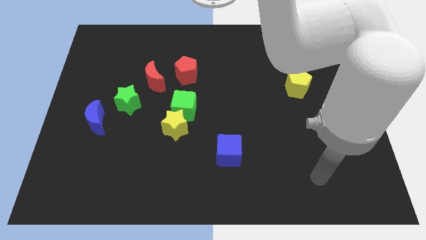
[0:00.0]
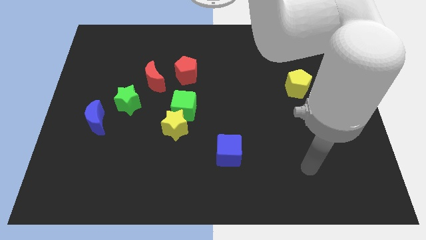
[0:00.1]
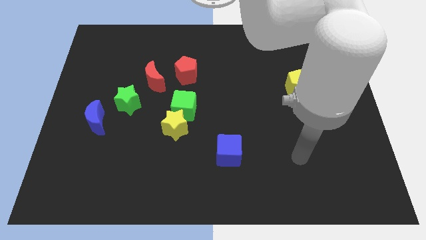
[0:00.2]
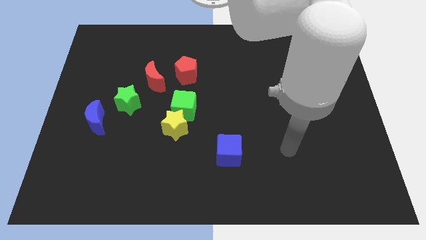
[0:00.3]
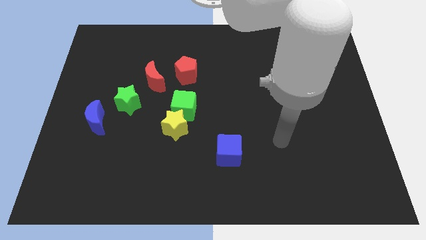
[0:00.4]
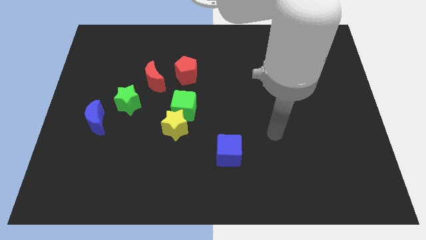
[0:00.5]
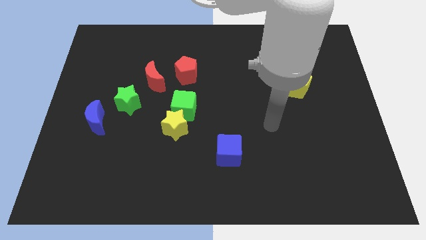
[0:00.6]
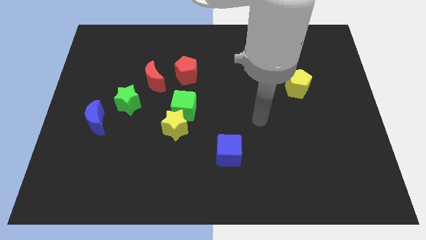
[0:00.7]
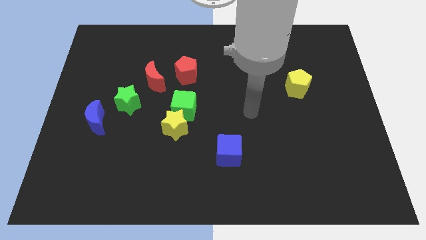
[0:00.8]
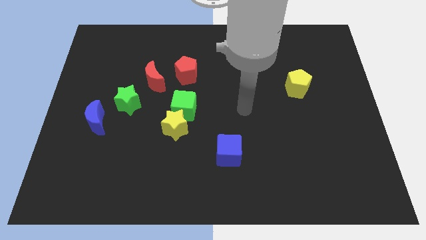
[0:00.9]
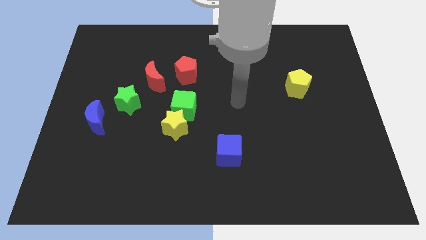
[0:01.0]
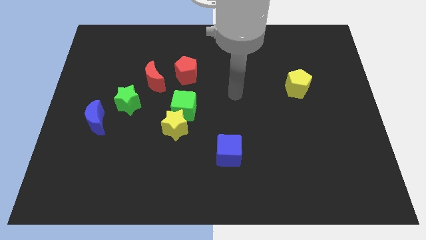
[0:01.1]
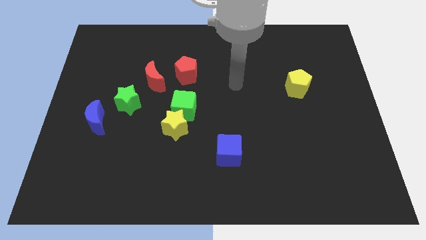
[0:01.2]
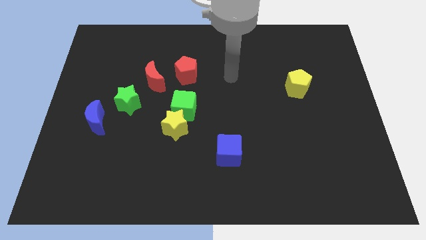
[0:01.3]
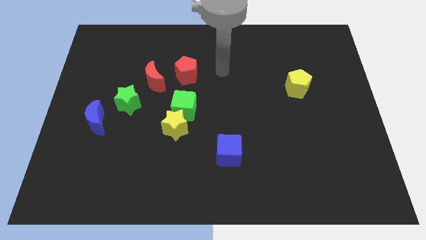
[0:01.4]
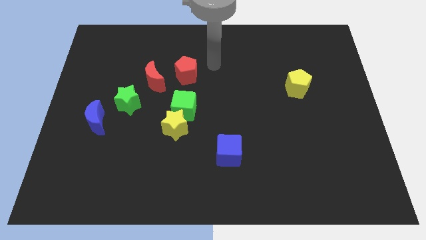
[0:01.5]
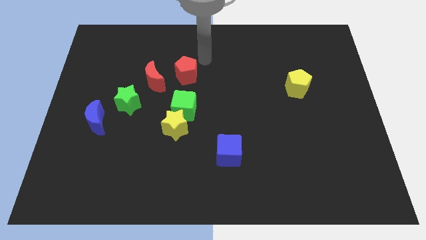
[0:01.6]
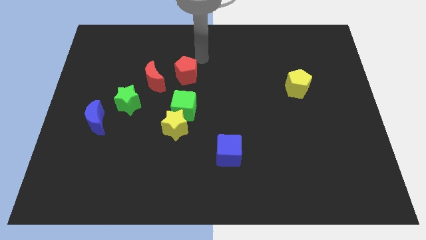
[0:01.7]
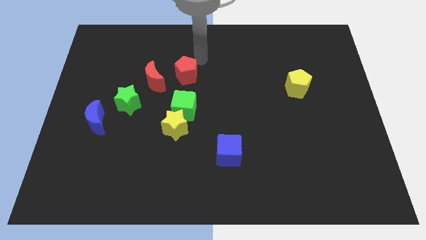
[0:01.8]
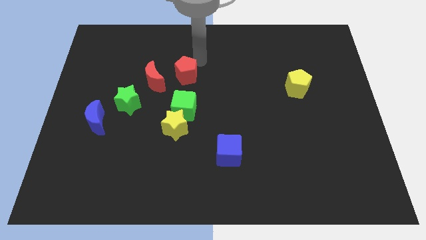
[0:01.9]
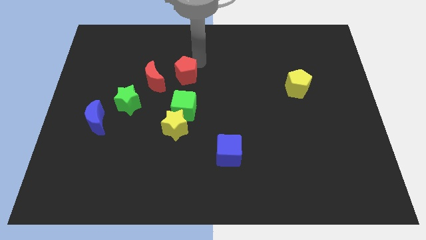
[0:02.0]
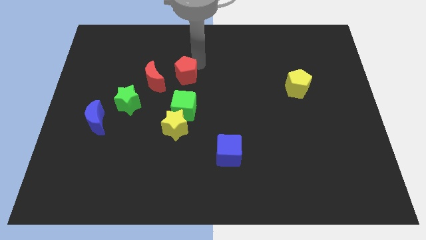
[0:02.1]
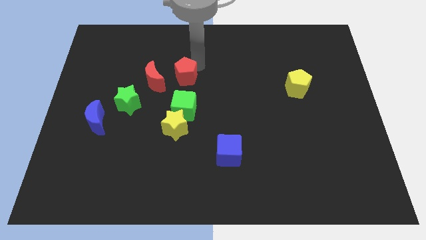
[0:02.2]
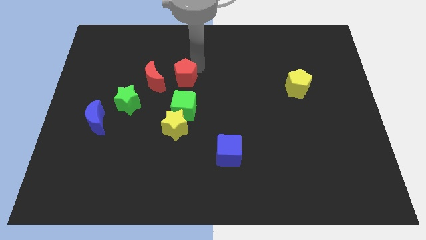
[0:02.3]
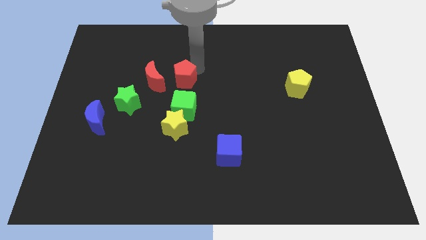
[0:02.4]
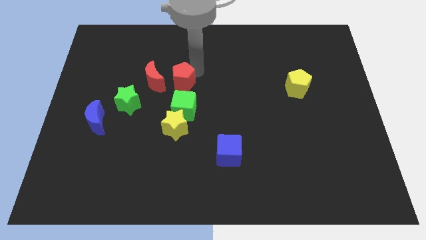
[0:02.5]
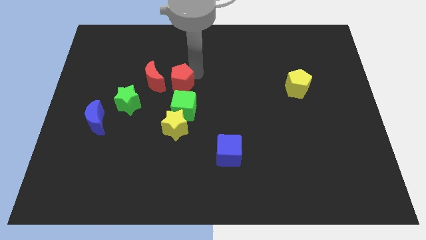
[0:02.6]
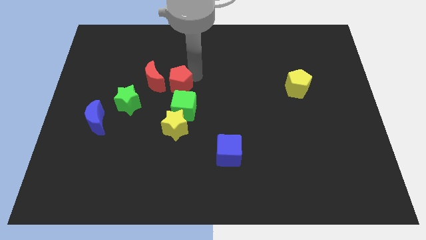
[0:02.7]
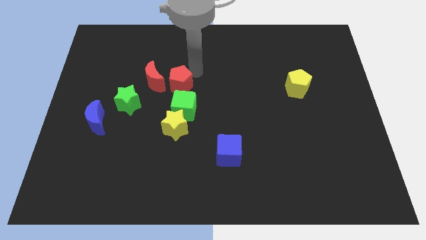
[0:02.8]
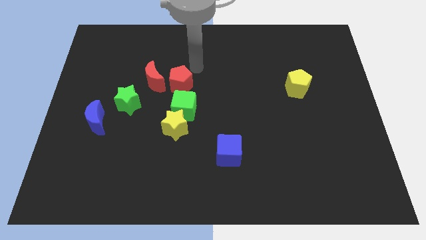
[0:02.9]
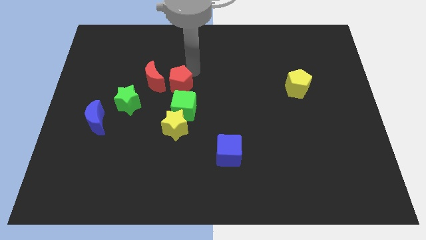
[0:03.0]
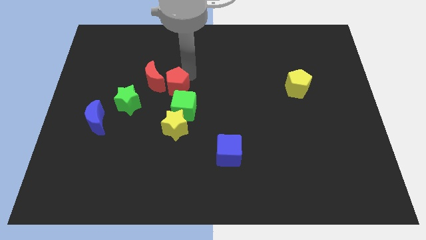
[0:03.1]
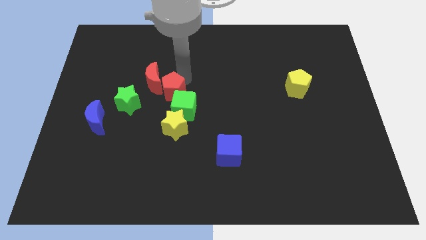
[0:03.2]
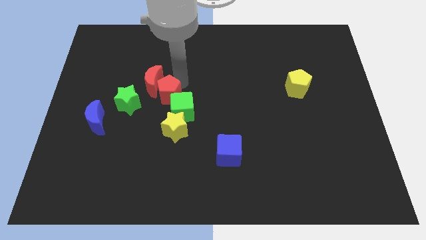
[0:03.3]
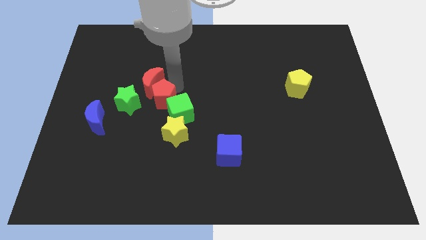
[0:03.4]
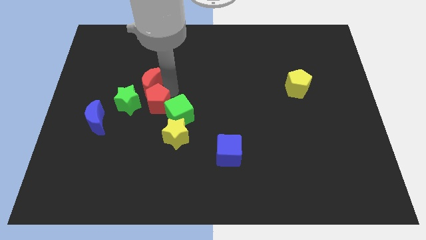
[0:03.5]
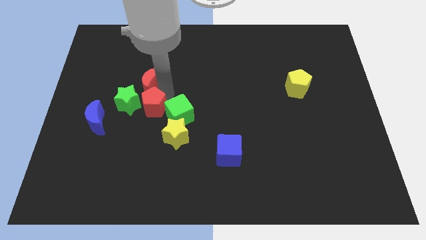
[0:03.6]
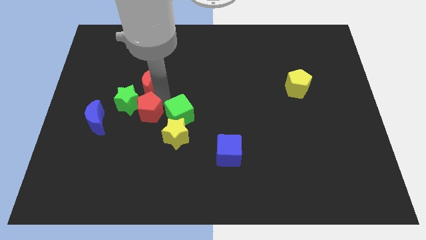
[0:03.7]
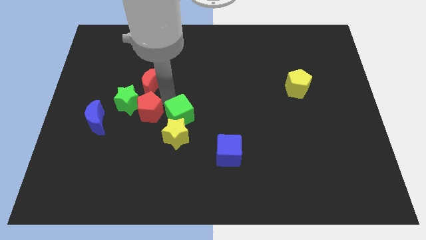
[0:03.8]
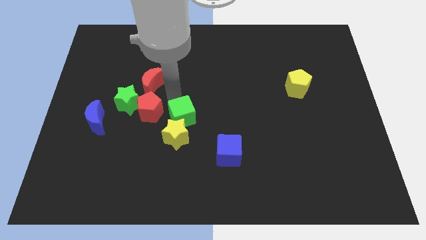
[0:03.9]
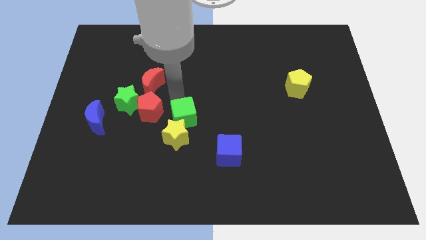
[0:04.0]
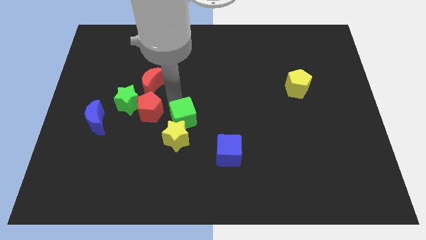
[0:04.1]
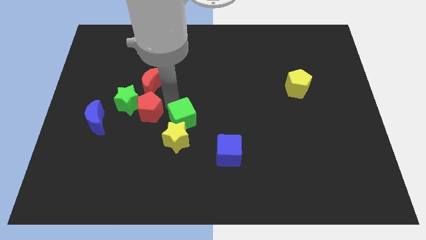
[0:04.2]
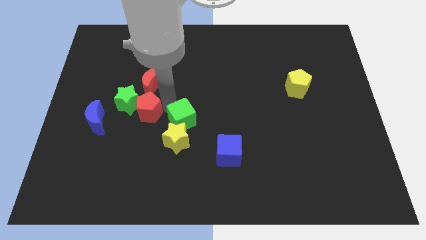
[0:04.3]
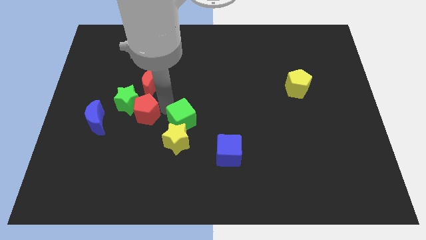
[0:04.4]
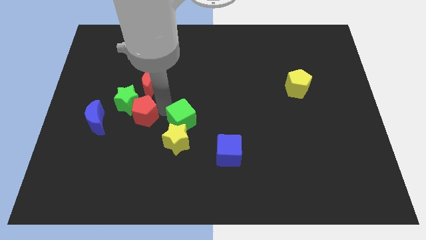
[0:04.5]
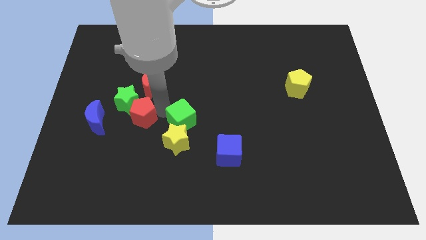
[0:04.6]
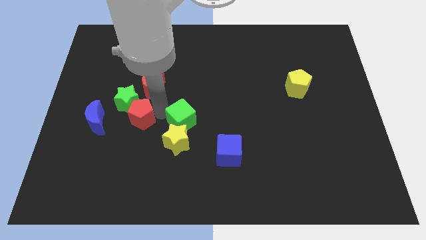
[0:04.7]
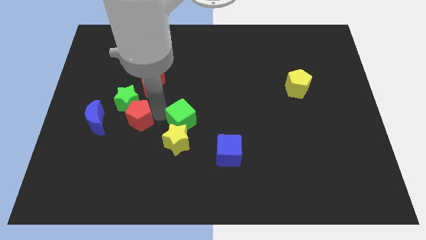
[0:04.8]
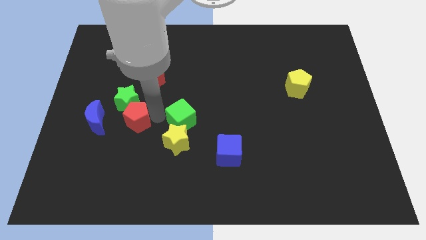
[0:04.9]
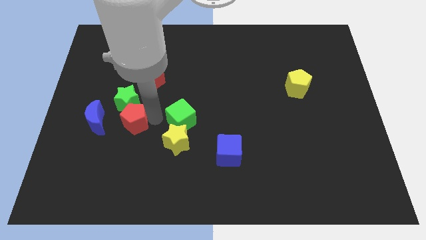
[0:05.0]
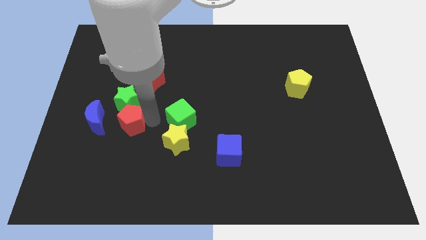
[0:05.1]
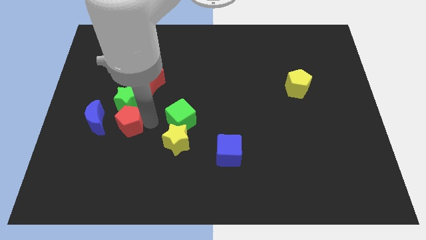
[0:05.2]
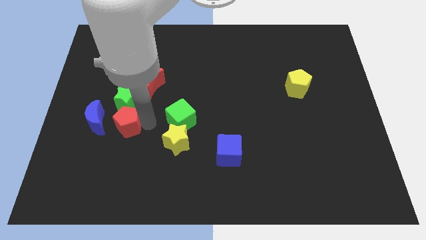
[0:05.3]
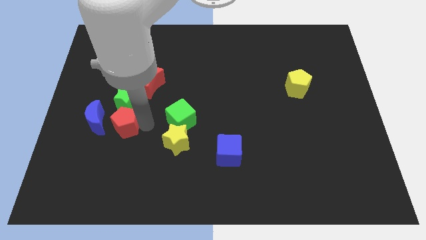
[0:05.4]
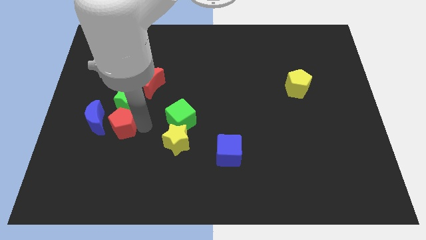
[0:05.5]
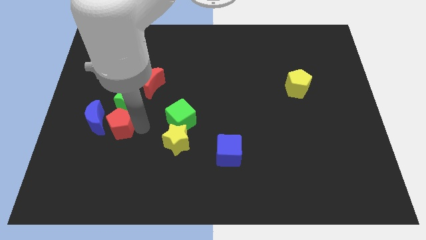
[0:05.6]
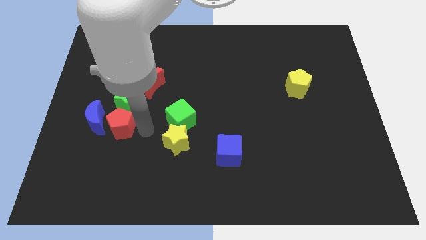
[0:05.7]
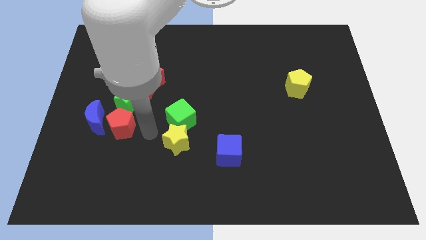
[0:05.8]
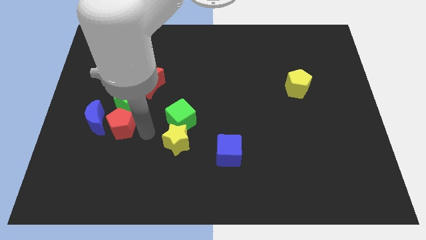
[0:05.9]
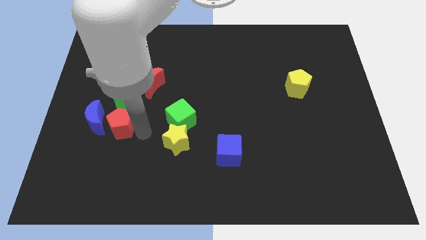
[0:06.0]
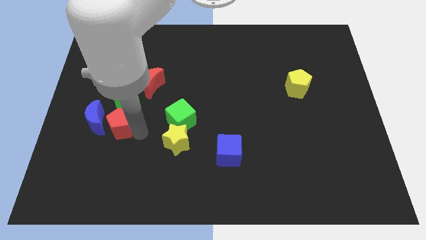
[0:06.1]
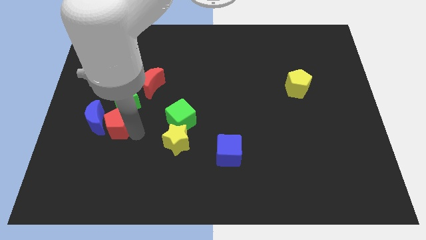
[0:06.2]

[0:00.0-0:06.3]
move the red pentagon close to the blue moon

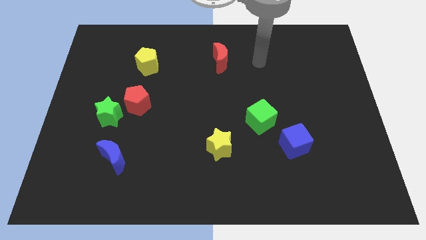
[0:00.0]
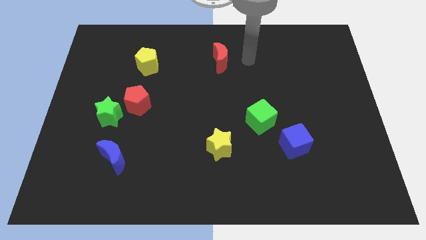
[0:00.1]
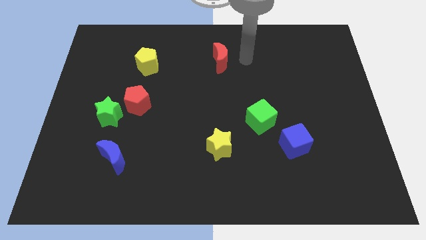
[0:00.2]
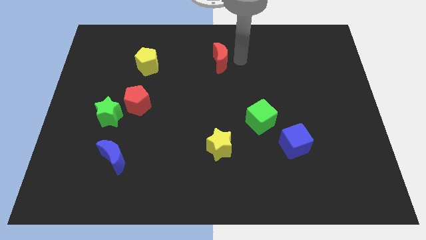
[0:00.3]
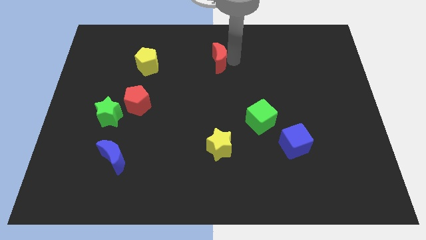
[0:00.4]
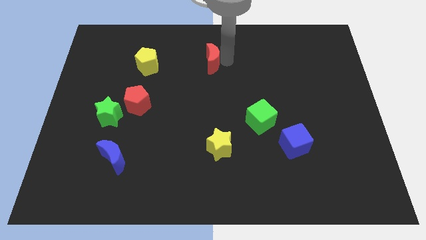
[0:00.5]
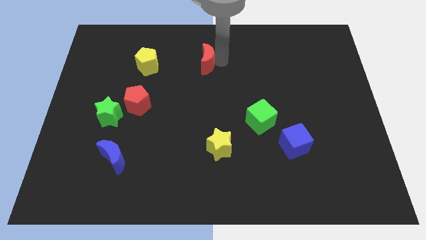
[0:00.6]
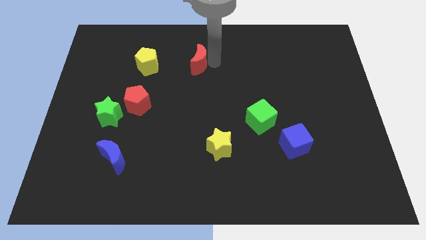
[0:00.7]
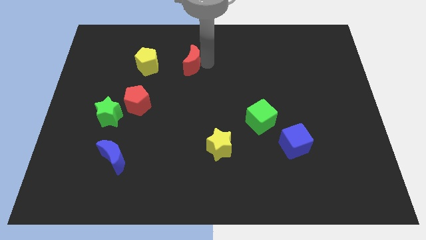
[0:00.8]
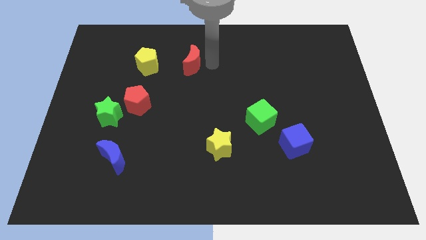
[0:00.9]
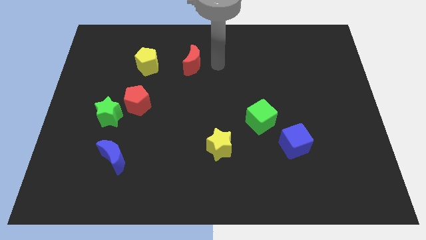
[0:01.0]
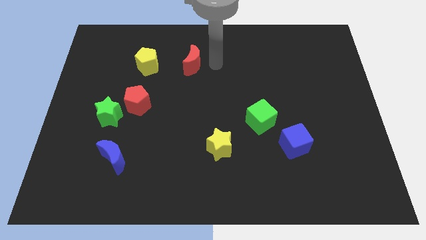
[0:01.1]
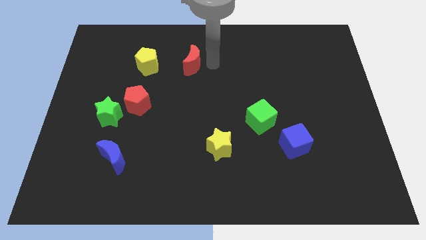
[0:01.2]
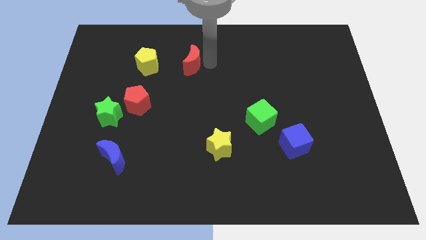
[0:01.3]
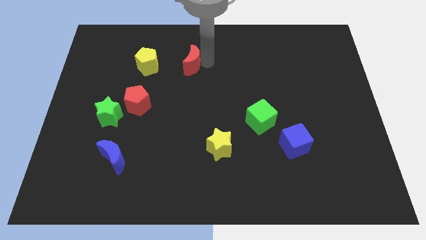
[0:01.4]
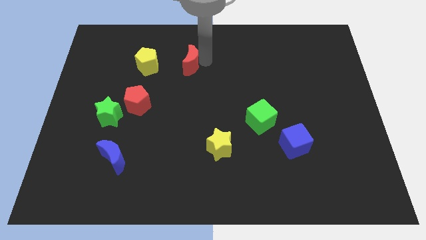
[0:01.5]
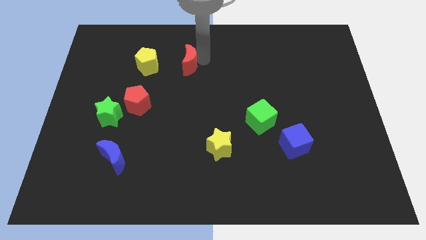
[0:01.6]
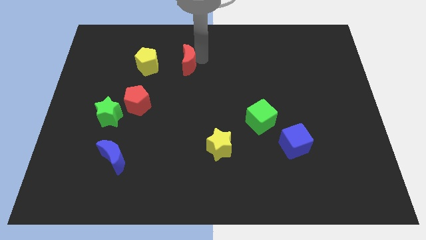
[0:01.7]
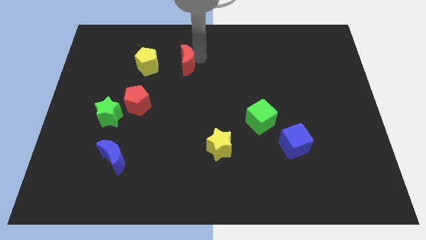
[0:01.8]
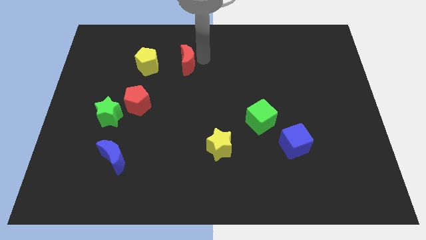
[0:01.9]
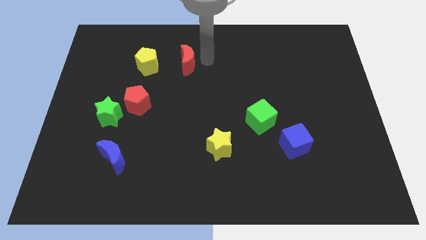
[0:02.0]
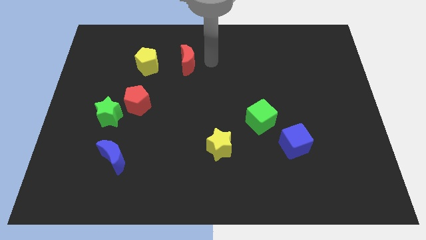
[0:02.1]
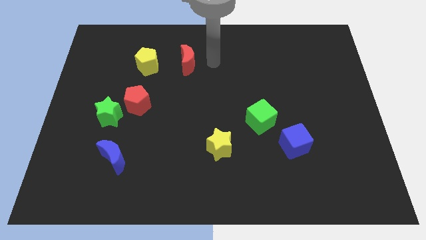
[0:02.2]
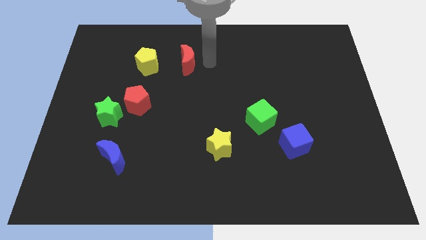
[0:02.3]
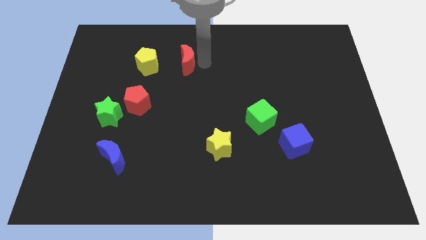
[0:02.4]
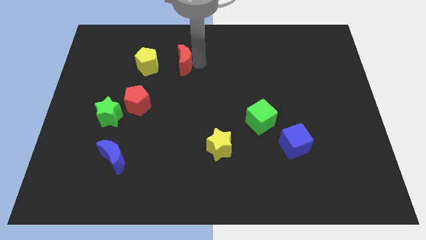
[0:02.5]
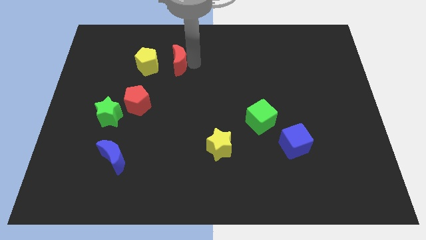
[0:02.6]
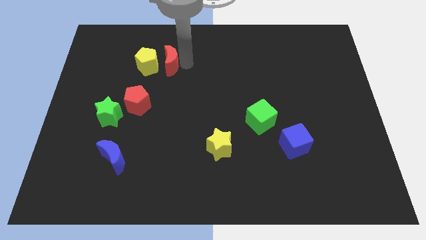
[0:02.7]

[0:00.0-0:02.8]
move the red moon towards the yellow pentagon
